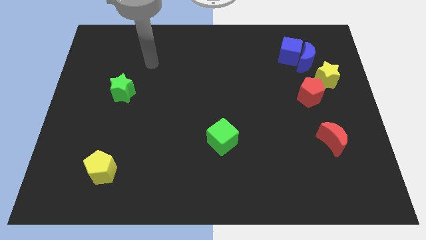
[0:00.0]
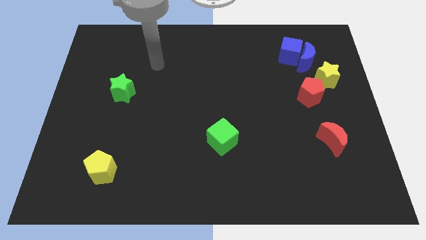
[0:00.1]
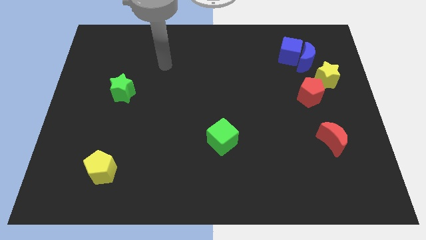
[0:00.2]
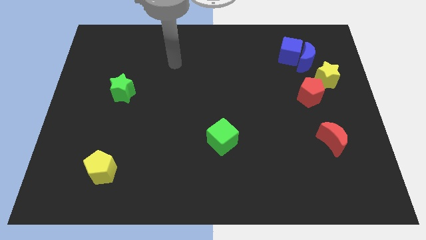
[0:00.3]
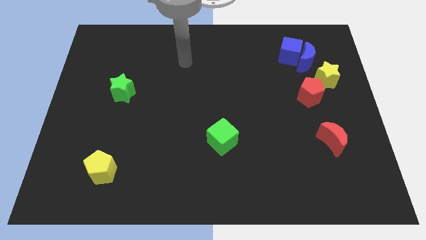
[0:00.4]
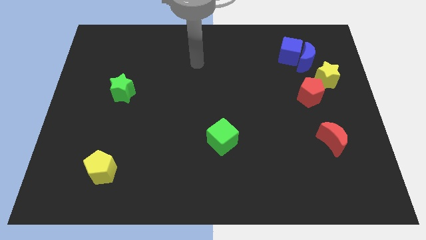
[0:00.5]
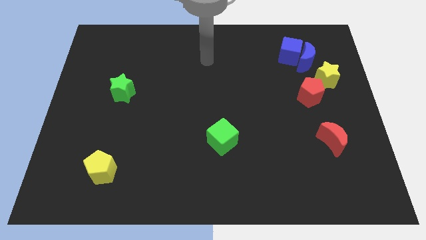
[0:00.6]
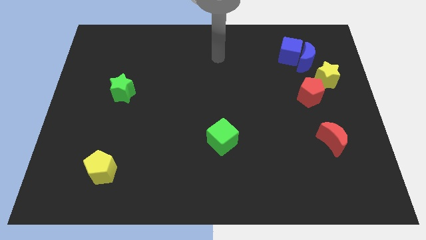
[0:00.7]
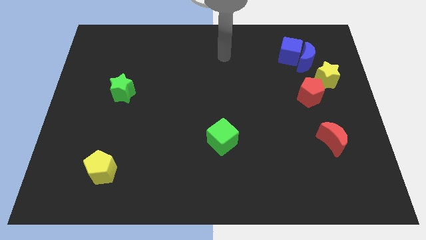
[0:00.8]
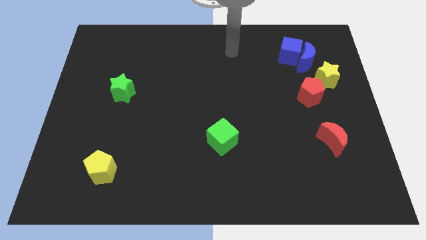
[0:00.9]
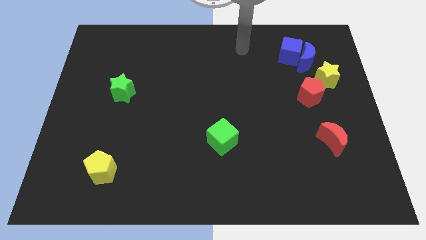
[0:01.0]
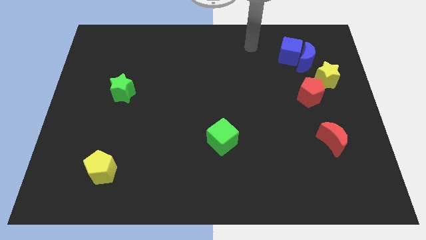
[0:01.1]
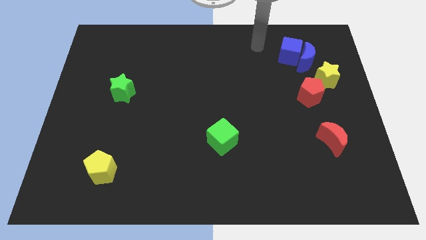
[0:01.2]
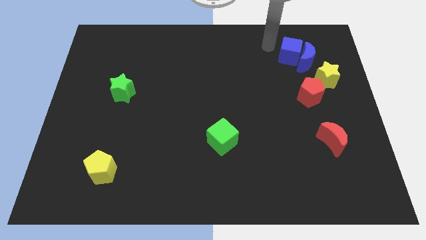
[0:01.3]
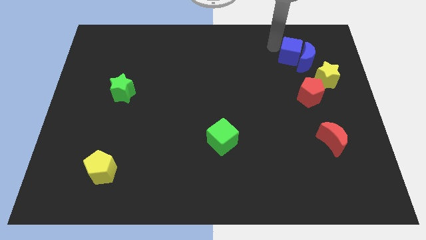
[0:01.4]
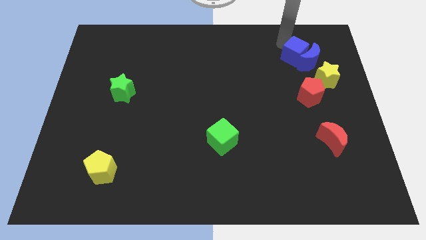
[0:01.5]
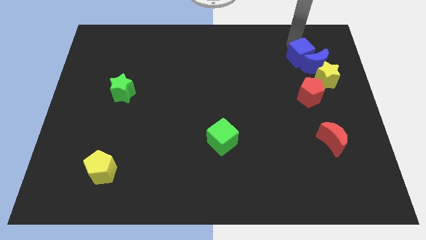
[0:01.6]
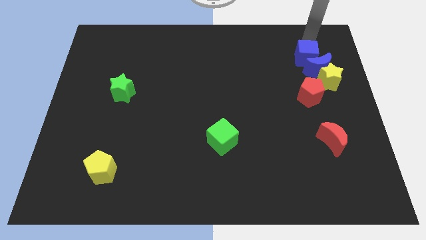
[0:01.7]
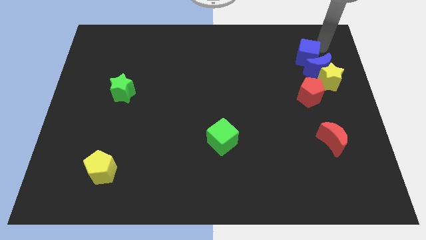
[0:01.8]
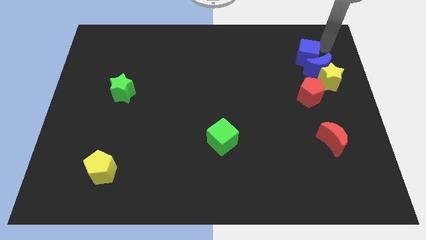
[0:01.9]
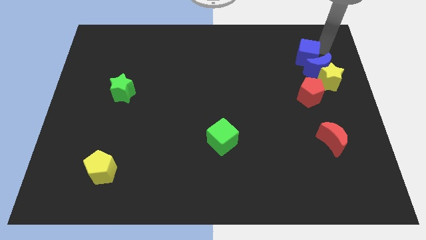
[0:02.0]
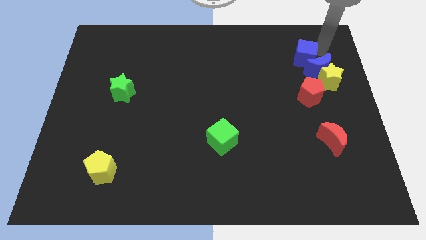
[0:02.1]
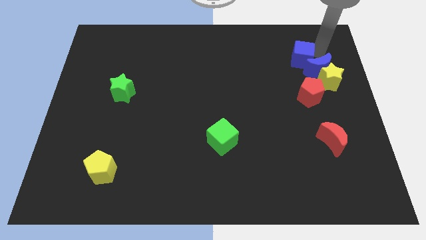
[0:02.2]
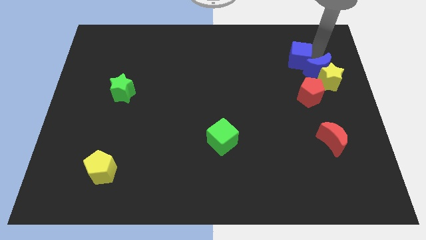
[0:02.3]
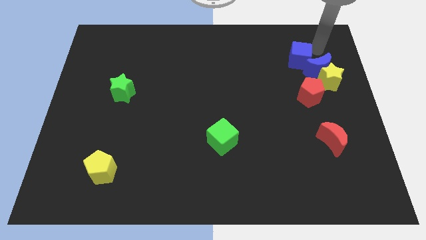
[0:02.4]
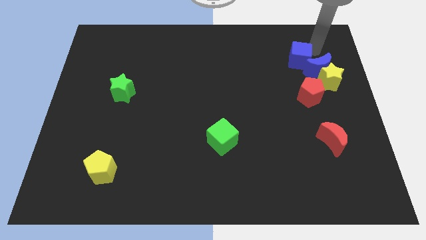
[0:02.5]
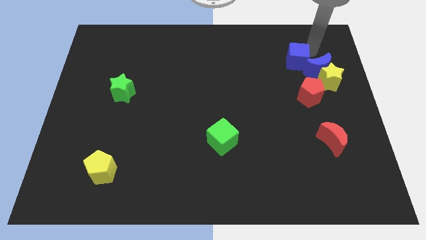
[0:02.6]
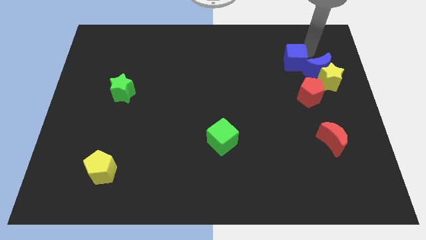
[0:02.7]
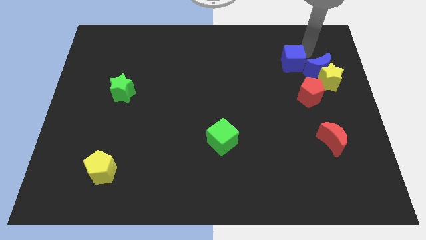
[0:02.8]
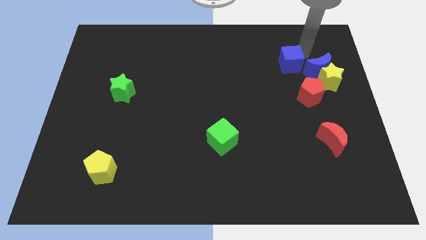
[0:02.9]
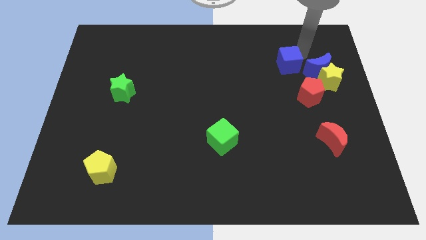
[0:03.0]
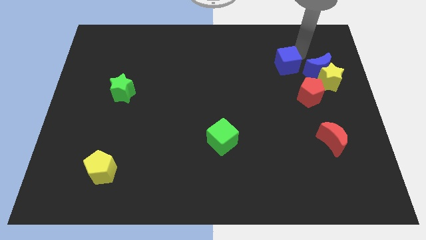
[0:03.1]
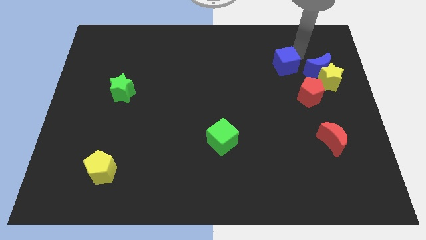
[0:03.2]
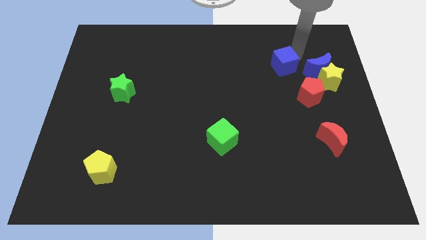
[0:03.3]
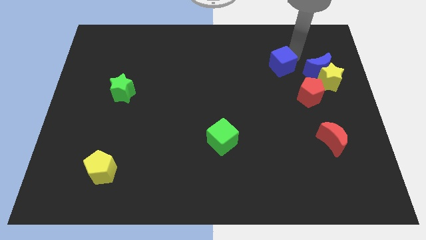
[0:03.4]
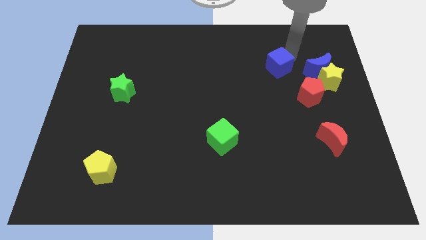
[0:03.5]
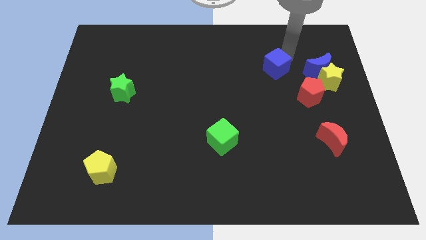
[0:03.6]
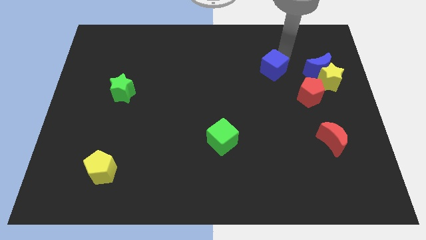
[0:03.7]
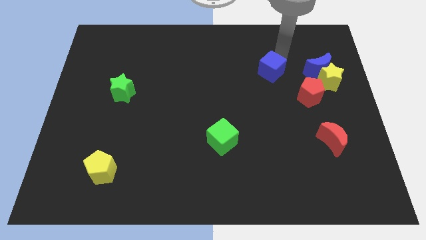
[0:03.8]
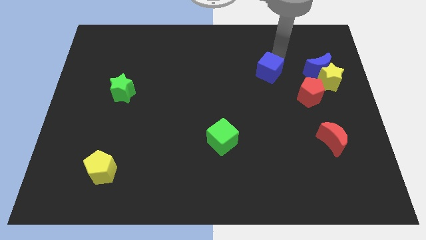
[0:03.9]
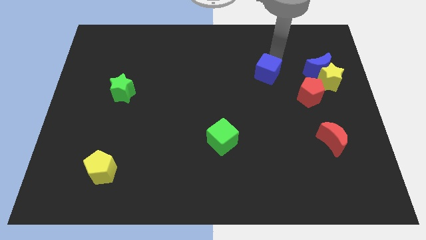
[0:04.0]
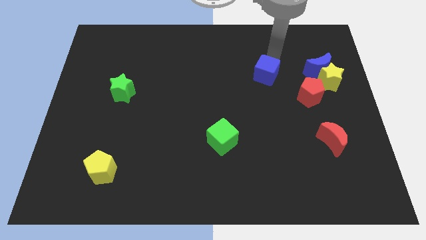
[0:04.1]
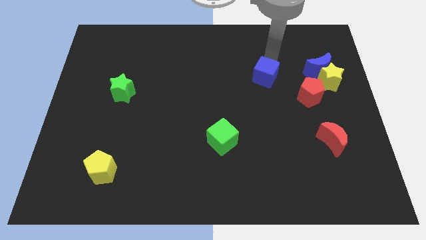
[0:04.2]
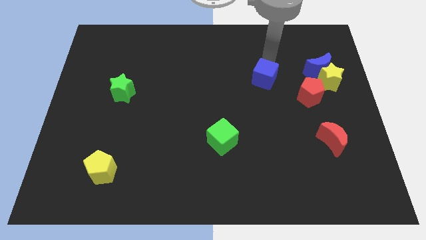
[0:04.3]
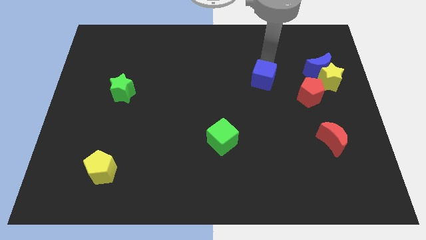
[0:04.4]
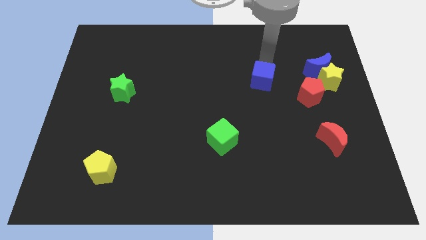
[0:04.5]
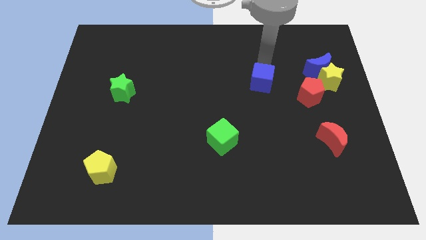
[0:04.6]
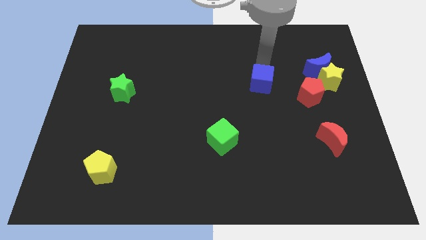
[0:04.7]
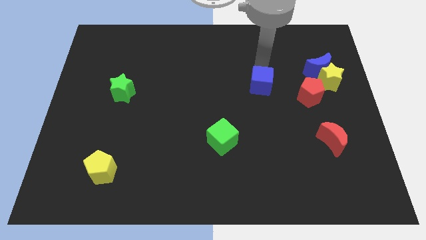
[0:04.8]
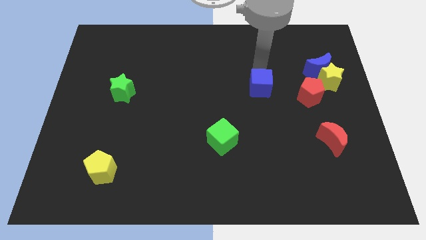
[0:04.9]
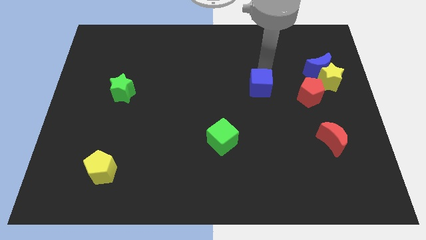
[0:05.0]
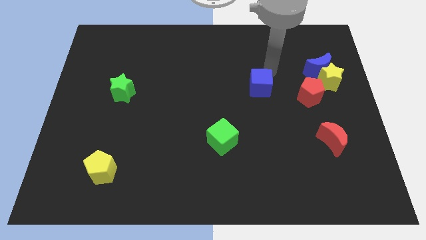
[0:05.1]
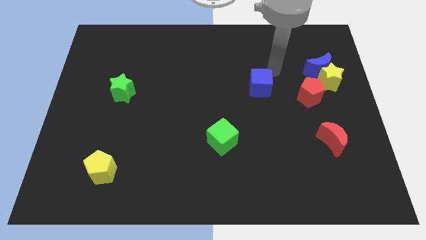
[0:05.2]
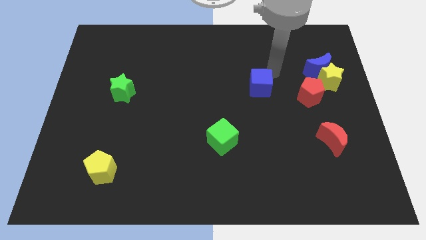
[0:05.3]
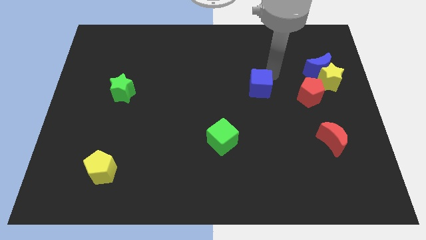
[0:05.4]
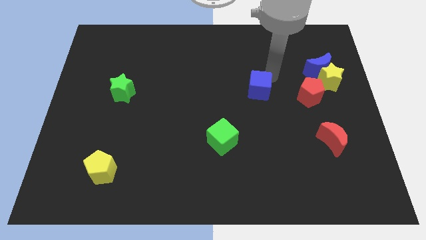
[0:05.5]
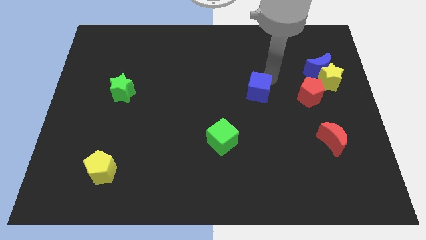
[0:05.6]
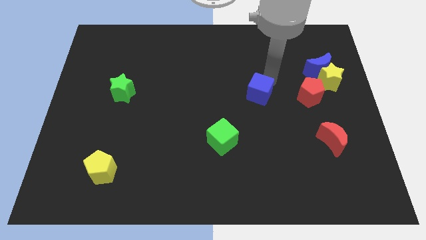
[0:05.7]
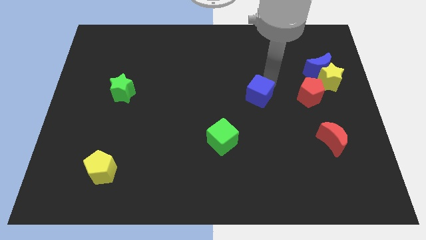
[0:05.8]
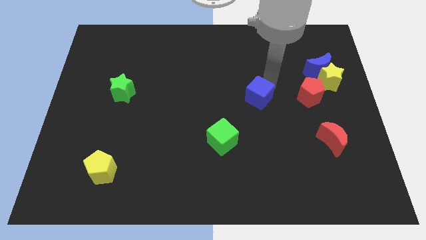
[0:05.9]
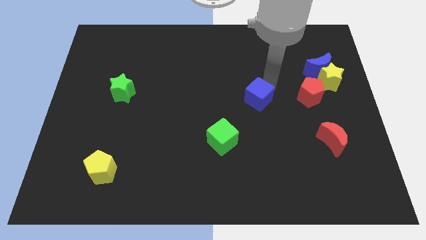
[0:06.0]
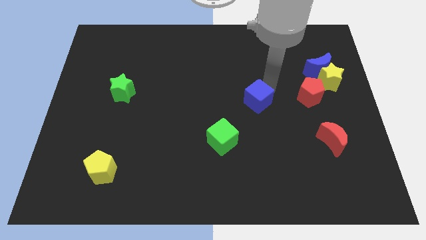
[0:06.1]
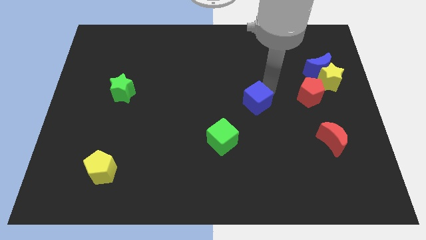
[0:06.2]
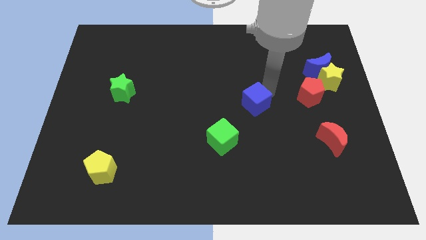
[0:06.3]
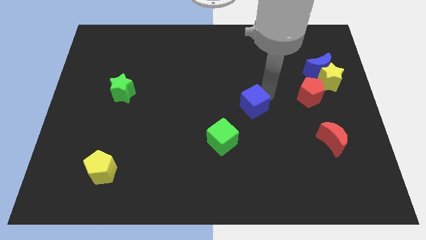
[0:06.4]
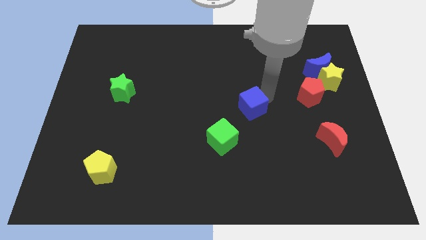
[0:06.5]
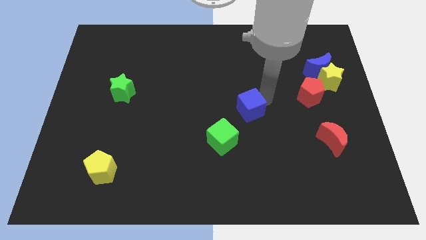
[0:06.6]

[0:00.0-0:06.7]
push the blue cube diagonally downwards and to the left

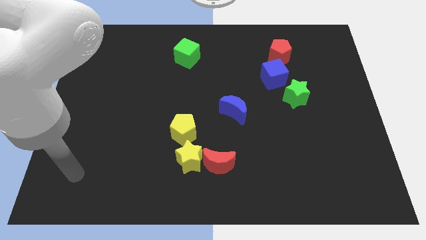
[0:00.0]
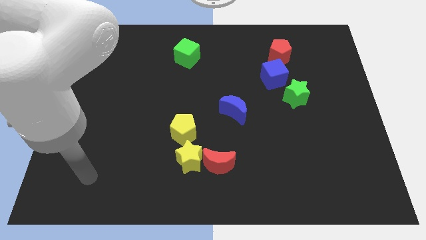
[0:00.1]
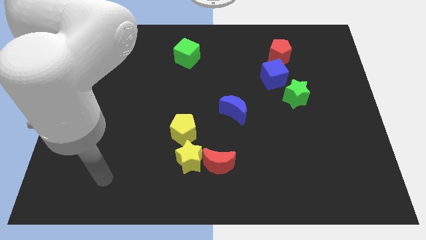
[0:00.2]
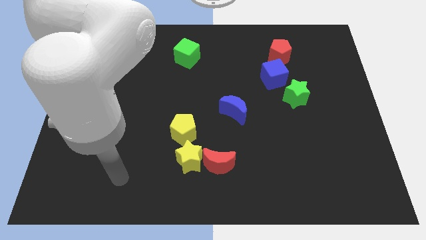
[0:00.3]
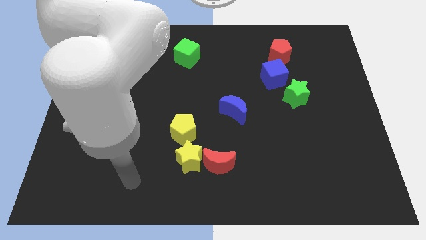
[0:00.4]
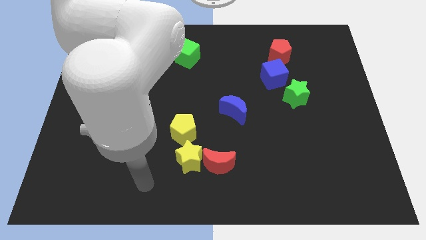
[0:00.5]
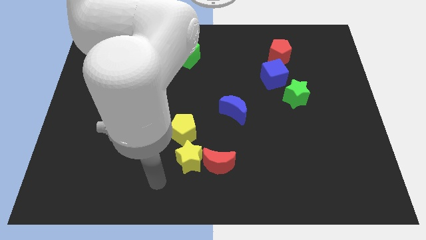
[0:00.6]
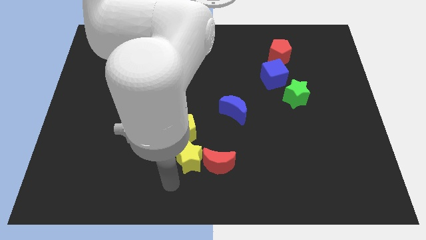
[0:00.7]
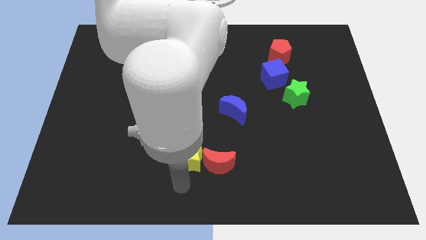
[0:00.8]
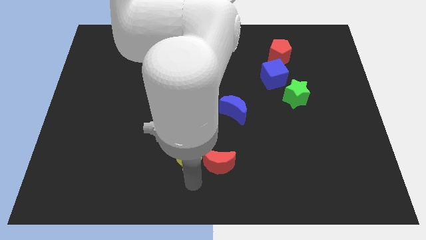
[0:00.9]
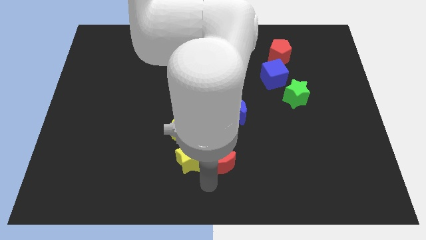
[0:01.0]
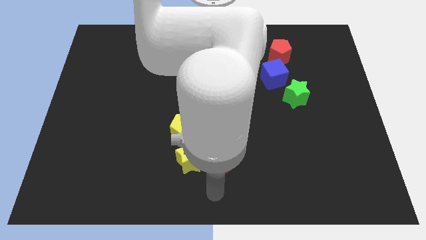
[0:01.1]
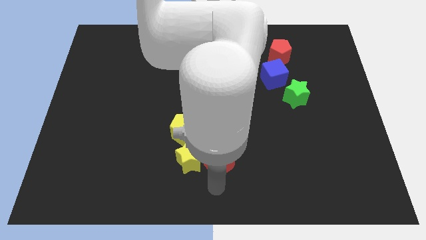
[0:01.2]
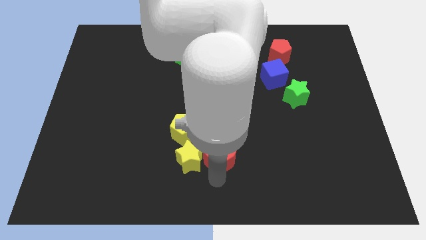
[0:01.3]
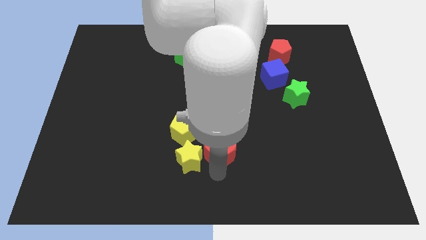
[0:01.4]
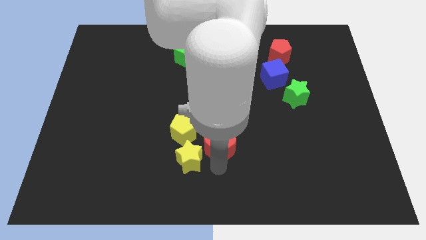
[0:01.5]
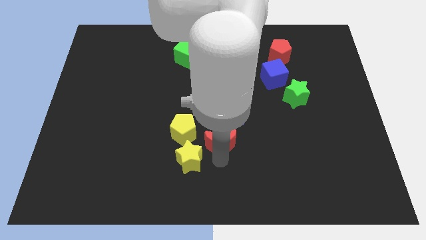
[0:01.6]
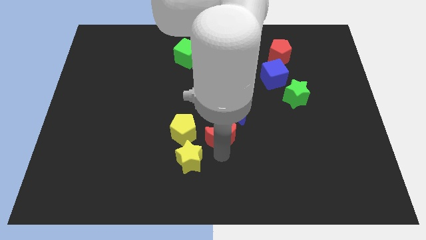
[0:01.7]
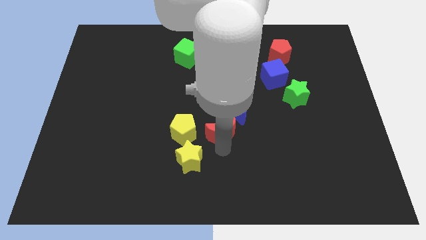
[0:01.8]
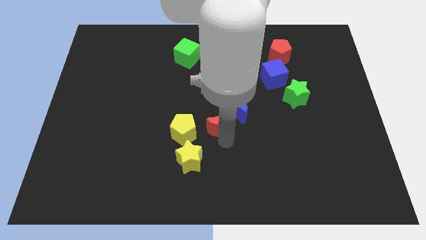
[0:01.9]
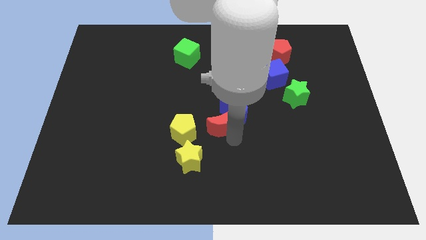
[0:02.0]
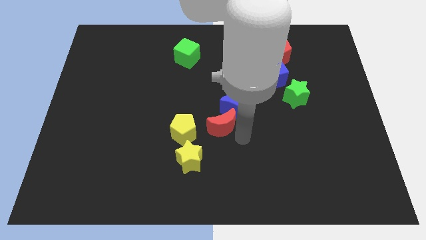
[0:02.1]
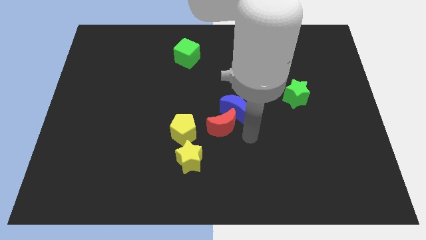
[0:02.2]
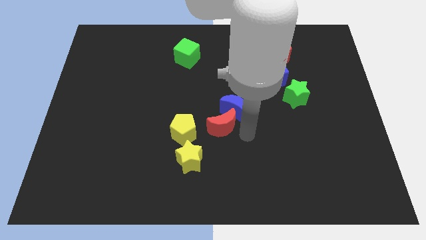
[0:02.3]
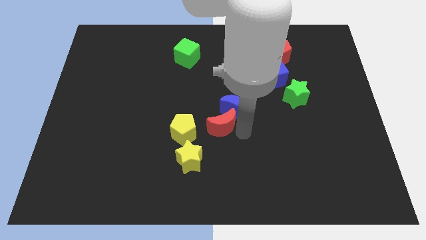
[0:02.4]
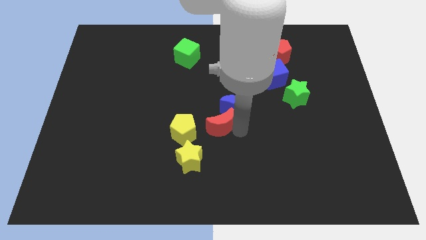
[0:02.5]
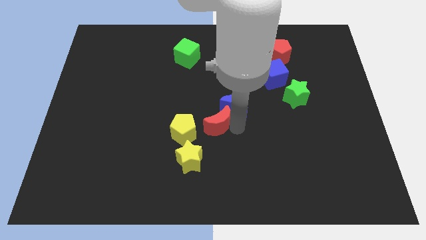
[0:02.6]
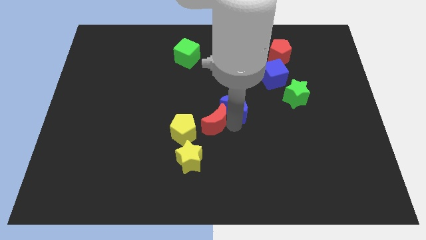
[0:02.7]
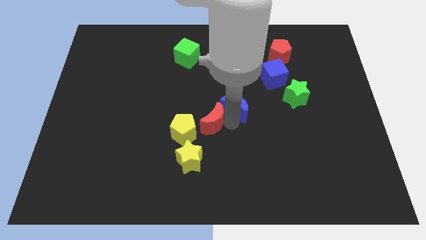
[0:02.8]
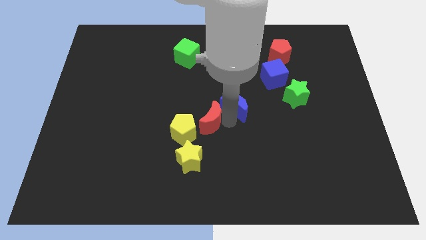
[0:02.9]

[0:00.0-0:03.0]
slightly slide the red moon up and then to the left
